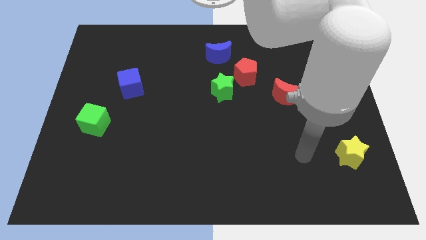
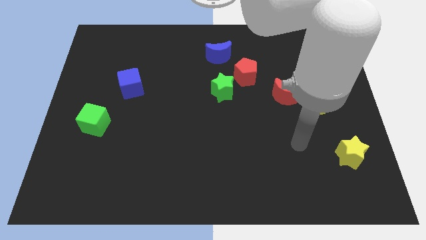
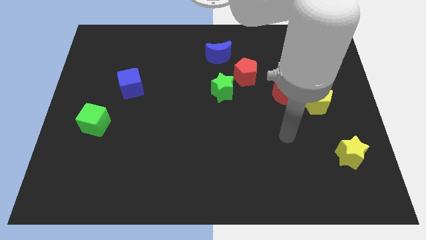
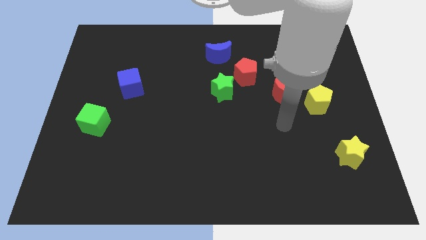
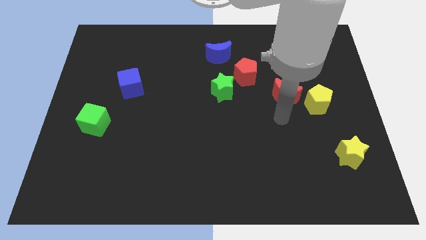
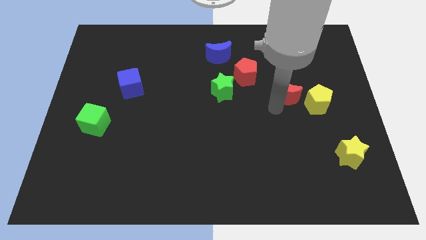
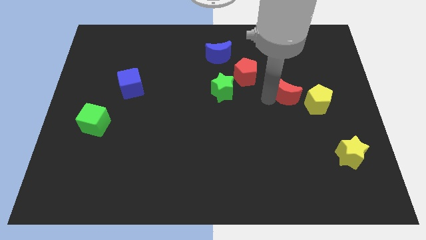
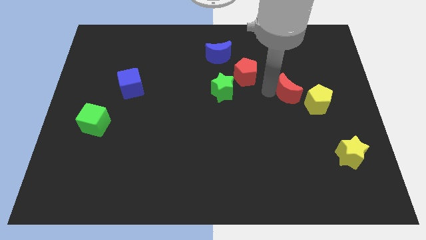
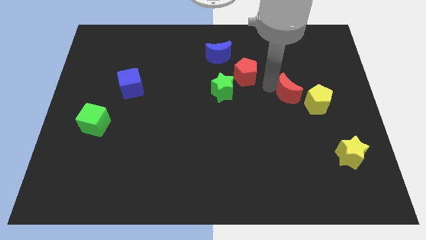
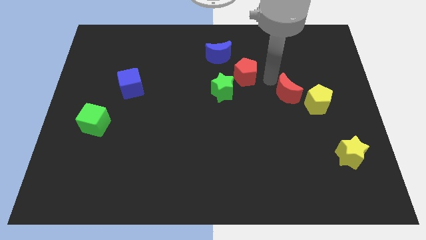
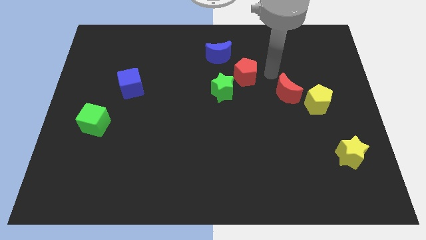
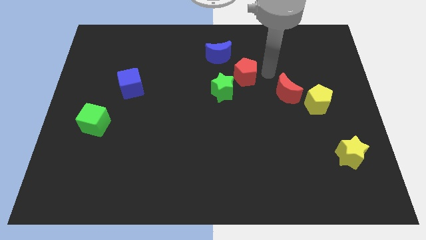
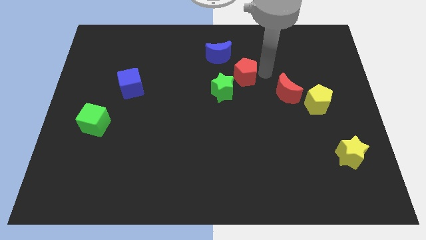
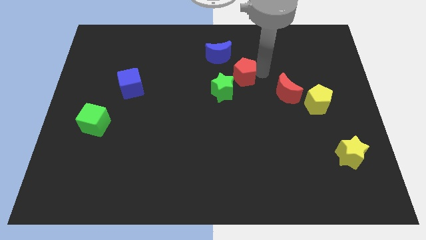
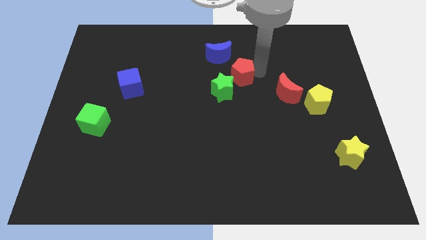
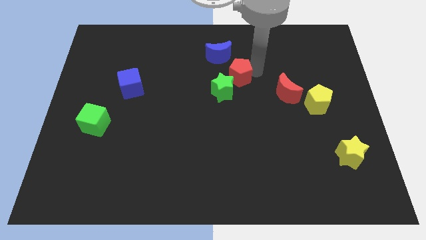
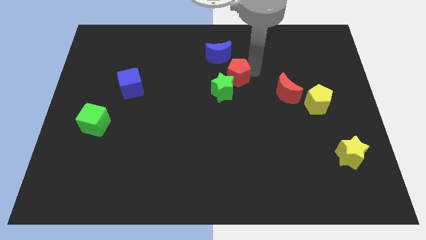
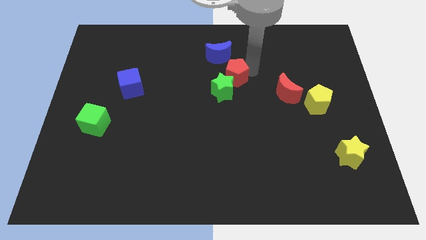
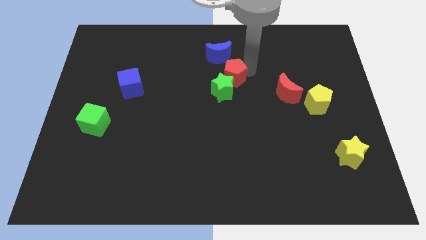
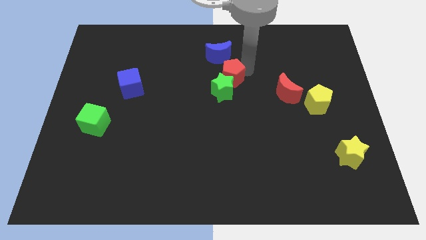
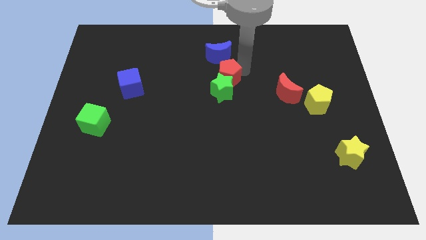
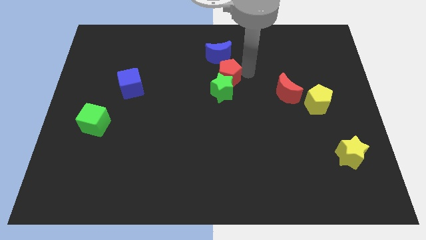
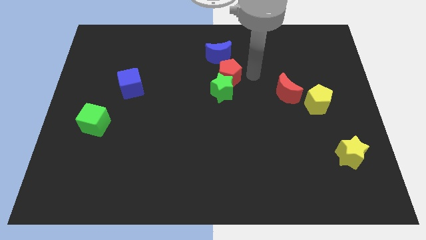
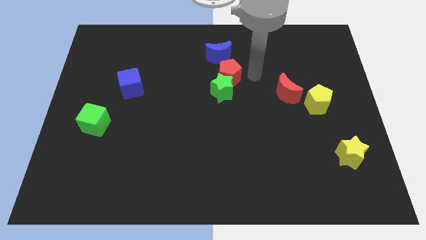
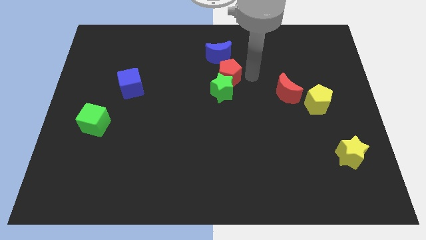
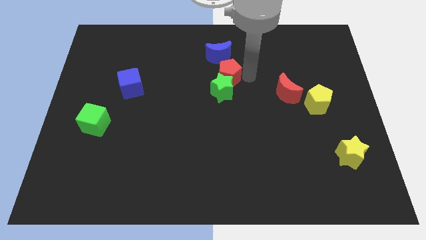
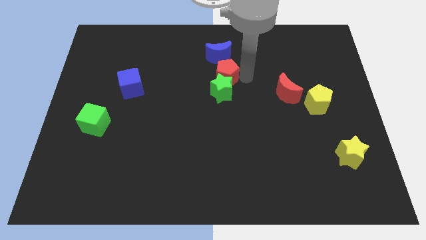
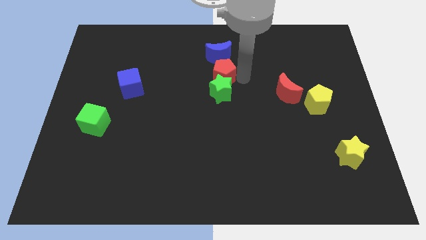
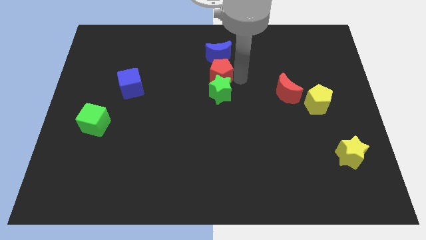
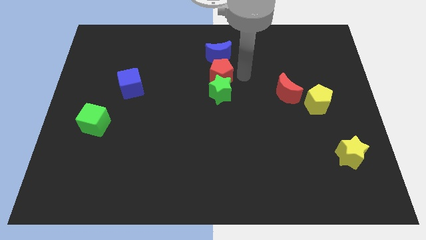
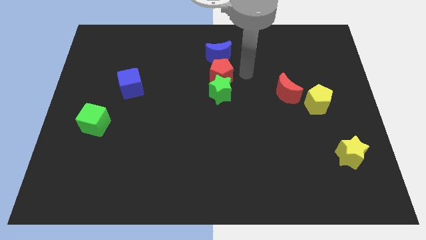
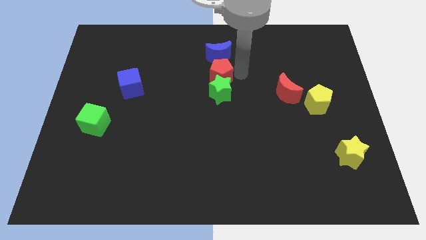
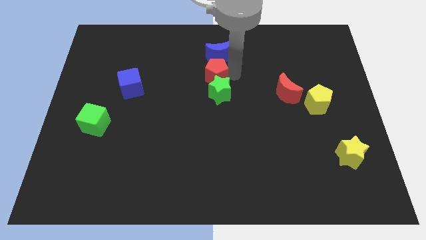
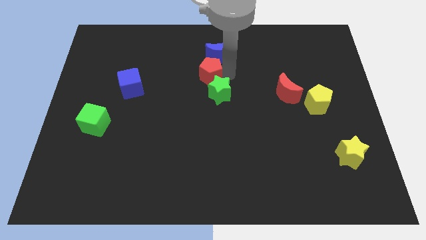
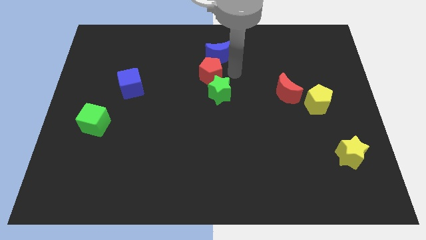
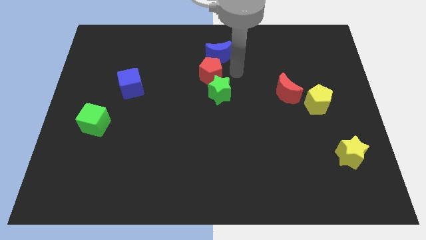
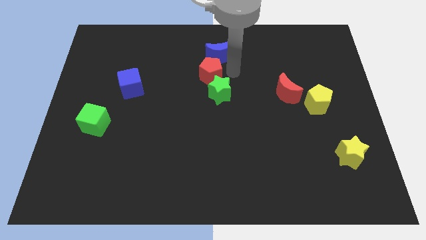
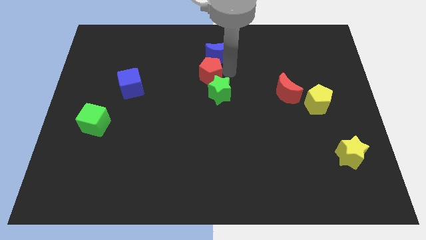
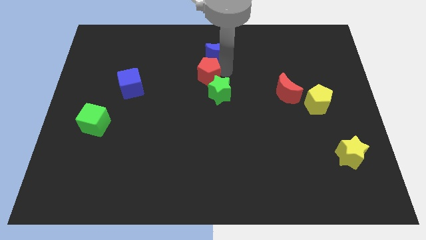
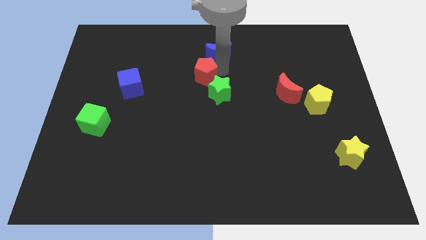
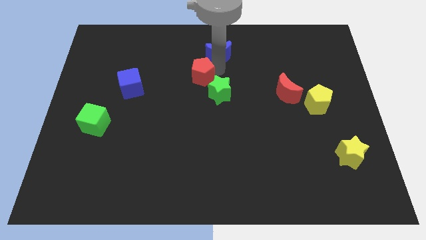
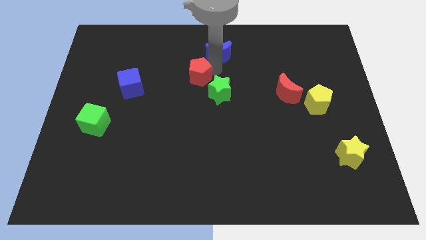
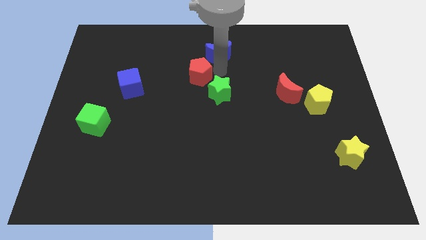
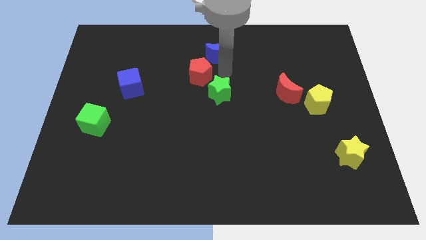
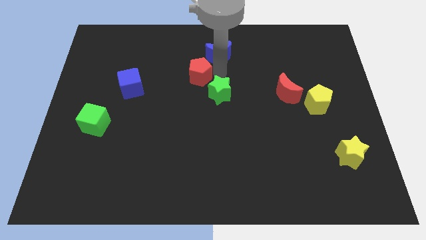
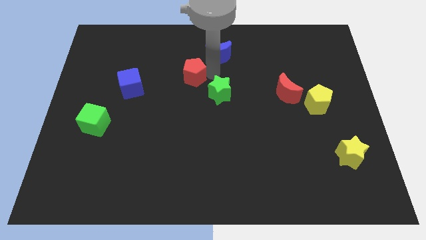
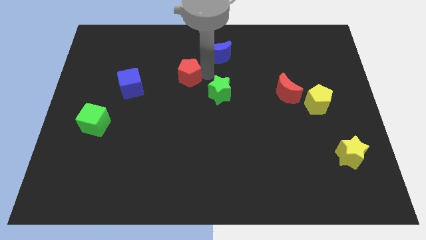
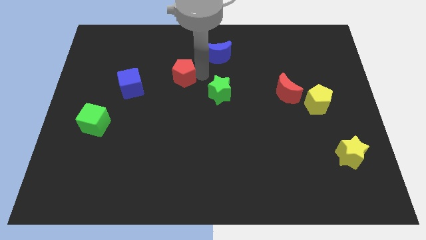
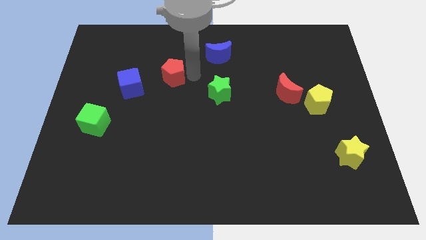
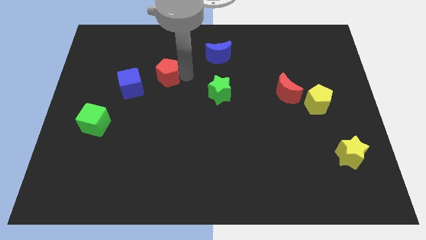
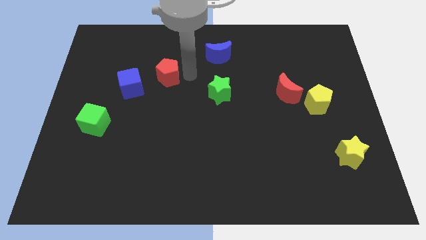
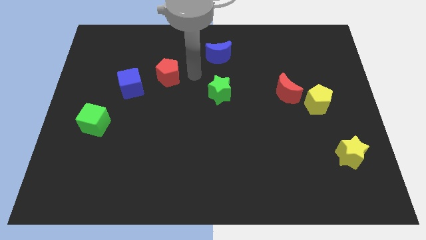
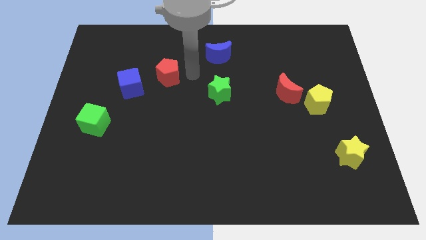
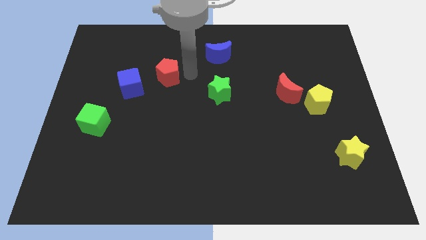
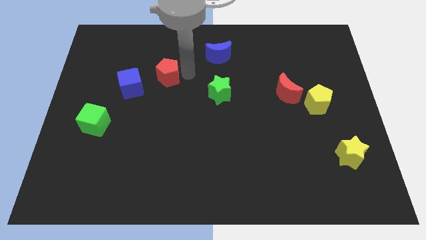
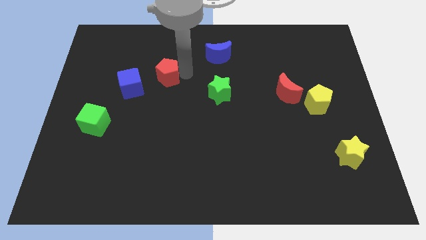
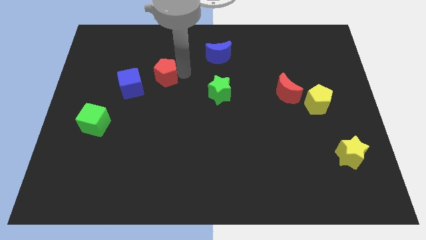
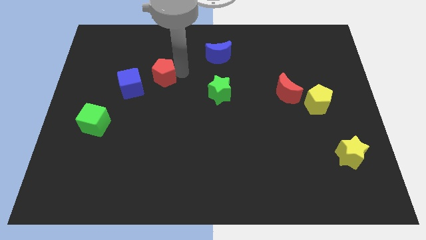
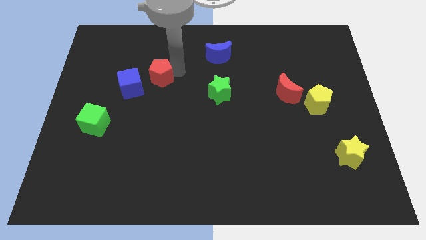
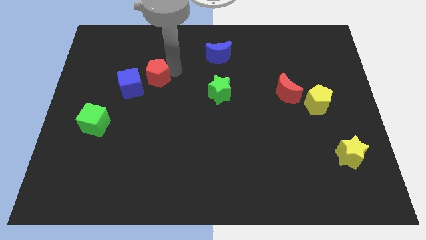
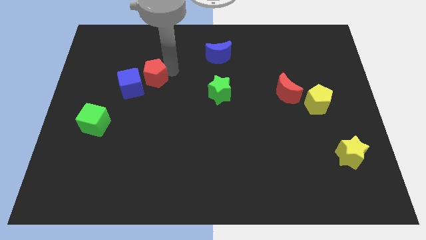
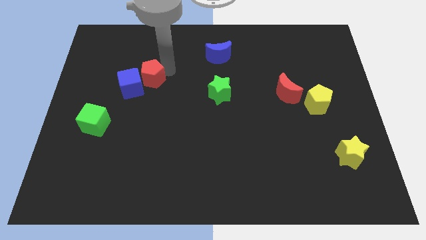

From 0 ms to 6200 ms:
move the red pentagon next to the blue cube
